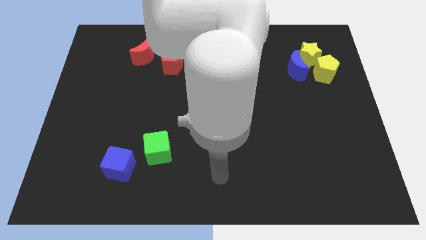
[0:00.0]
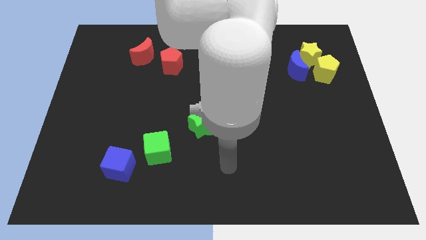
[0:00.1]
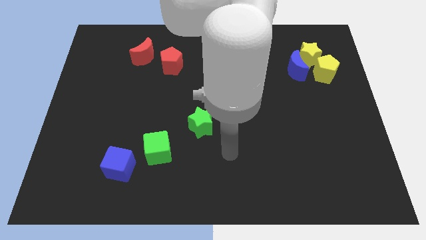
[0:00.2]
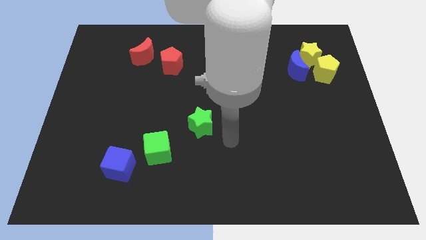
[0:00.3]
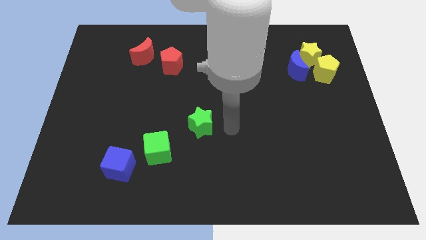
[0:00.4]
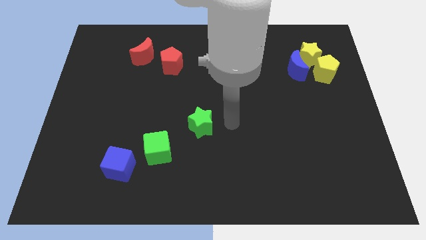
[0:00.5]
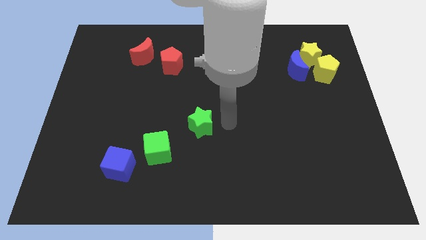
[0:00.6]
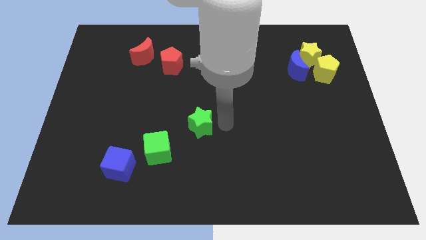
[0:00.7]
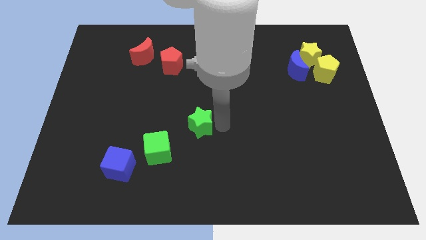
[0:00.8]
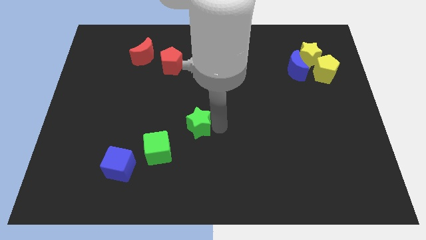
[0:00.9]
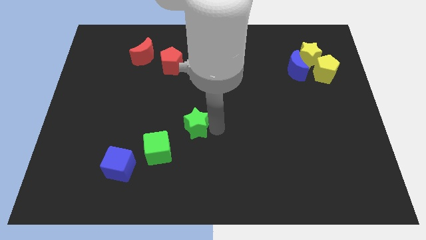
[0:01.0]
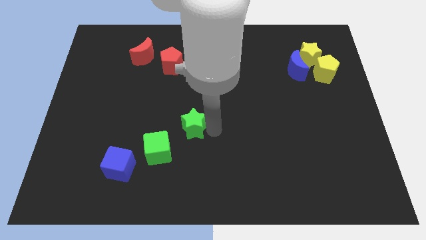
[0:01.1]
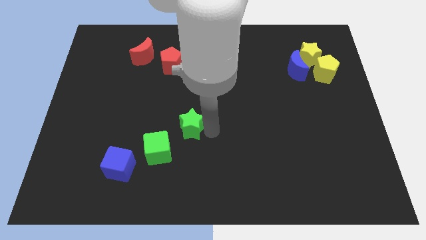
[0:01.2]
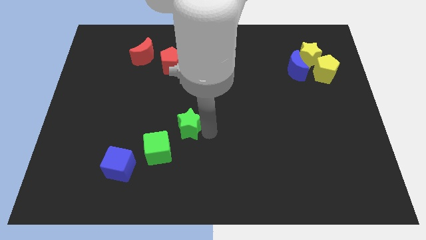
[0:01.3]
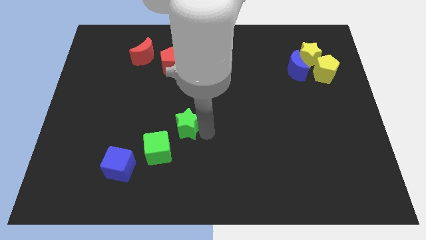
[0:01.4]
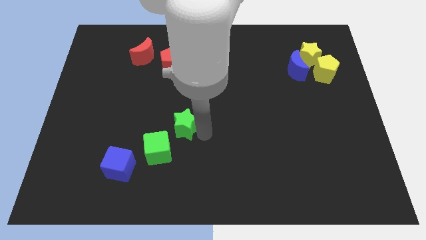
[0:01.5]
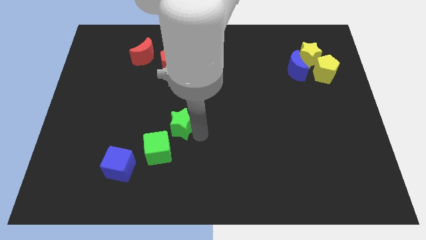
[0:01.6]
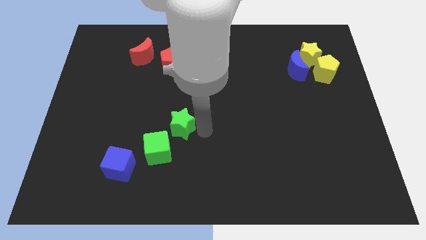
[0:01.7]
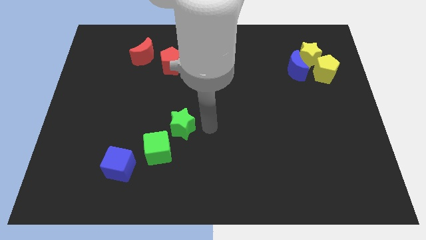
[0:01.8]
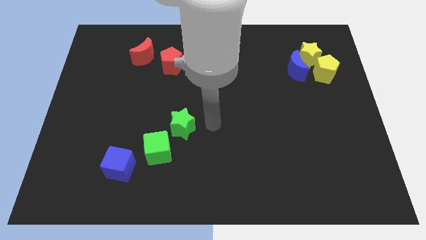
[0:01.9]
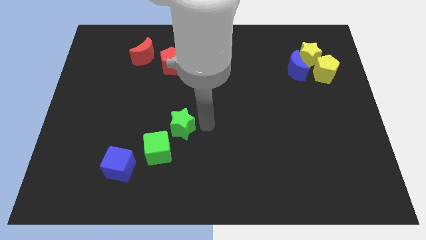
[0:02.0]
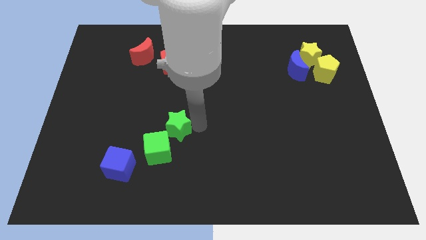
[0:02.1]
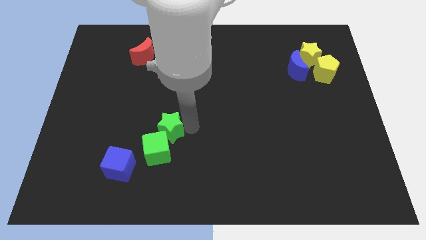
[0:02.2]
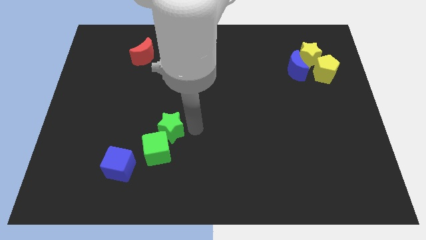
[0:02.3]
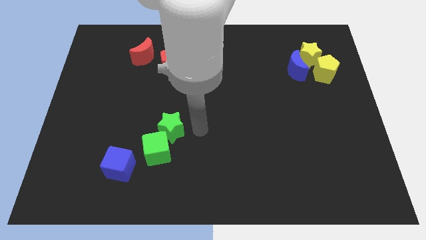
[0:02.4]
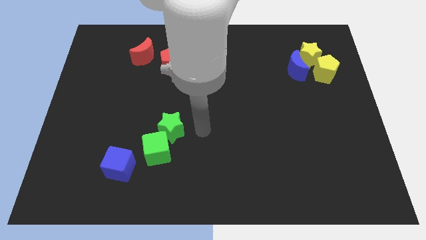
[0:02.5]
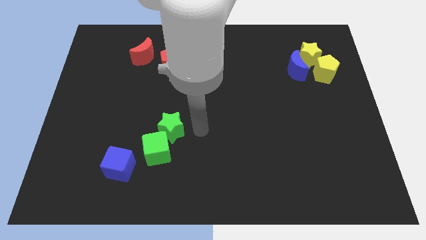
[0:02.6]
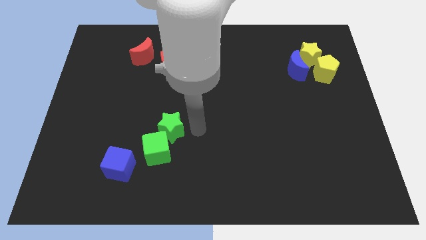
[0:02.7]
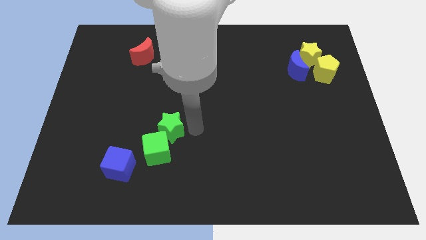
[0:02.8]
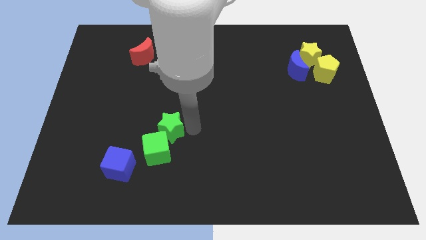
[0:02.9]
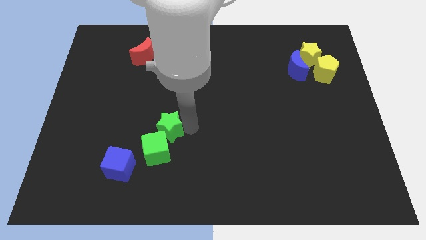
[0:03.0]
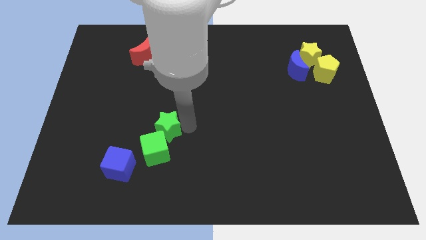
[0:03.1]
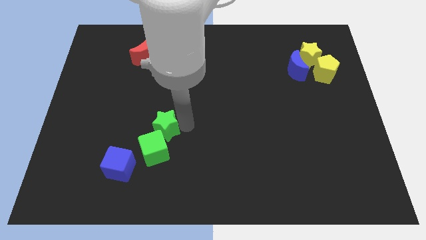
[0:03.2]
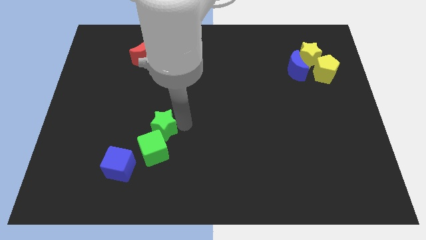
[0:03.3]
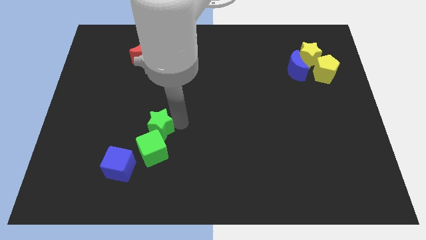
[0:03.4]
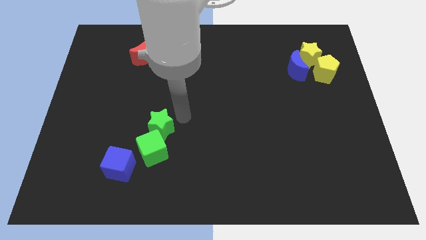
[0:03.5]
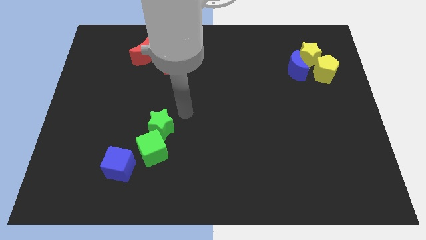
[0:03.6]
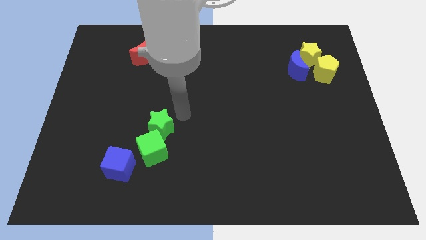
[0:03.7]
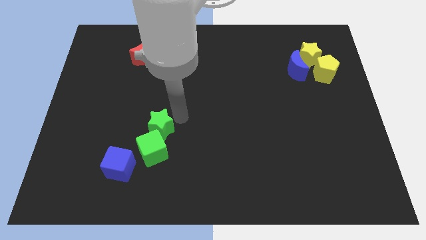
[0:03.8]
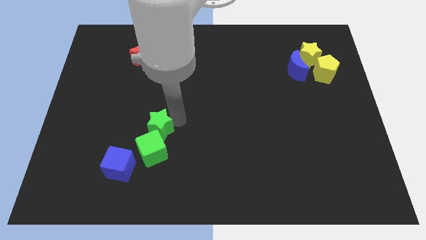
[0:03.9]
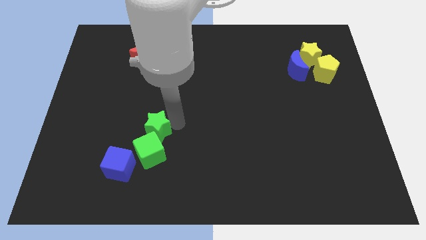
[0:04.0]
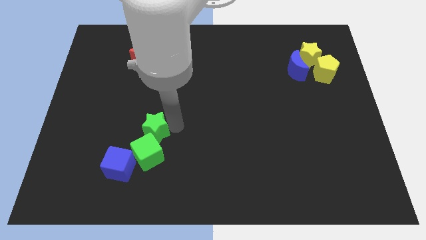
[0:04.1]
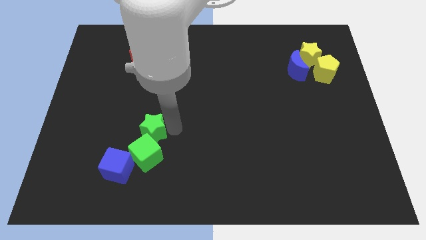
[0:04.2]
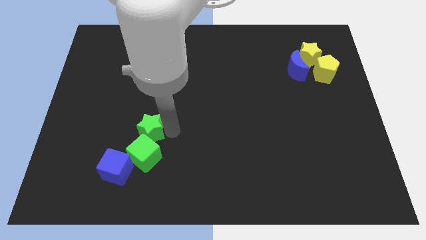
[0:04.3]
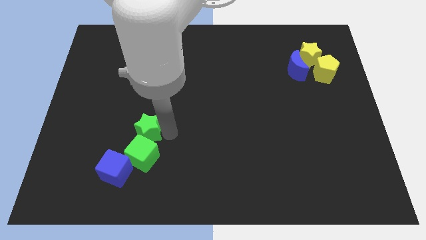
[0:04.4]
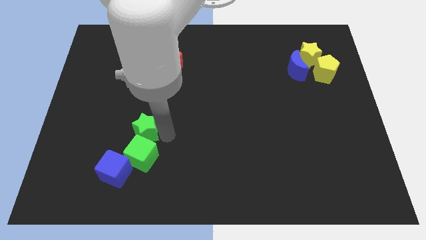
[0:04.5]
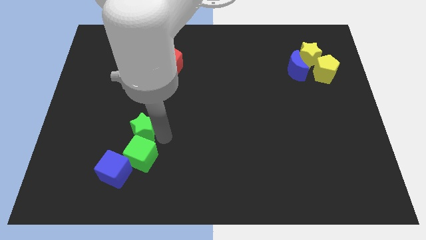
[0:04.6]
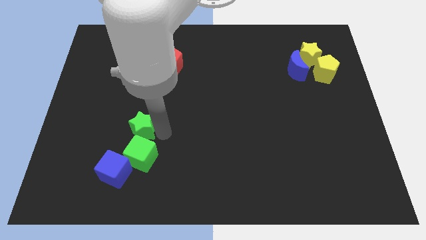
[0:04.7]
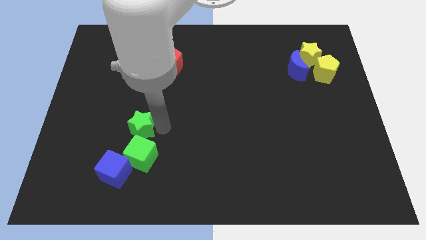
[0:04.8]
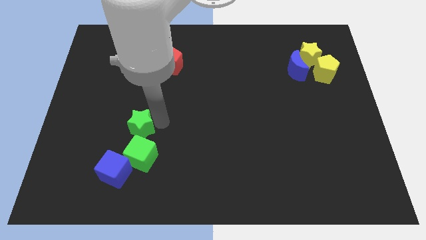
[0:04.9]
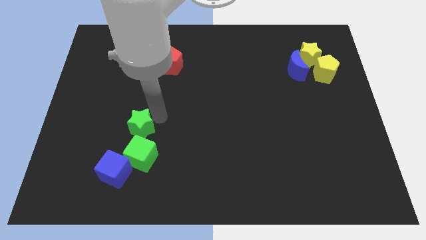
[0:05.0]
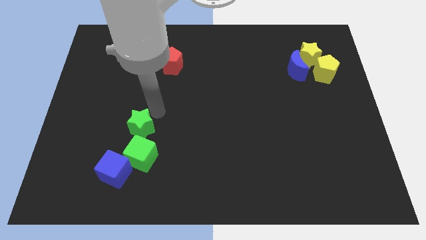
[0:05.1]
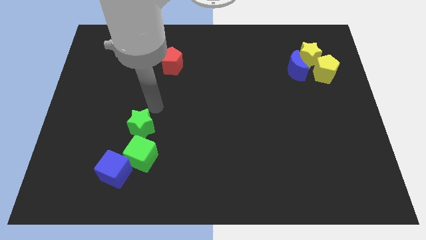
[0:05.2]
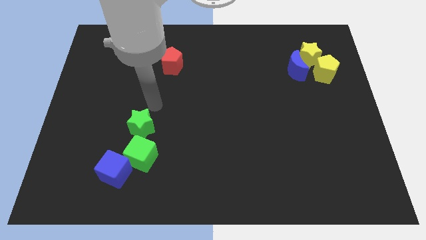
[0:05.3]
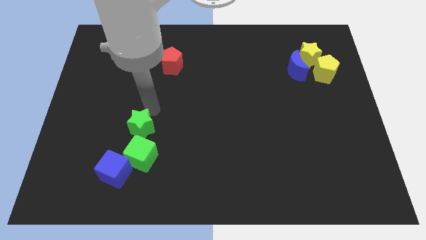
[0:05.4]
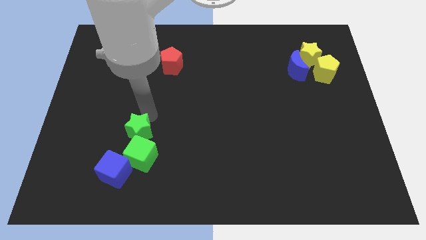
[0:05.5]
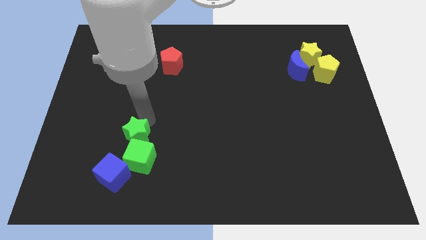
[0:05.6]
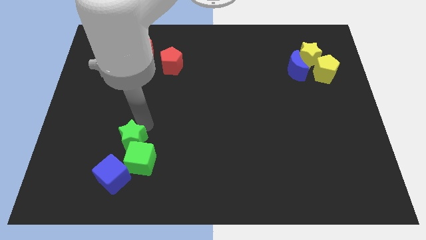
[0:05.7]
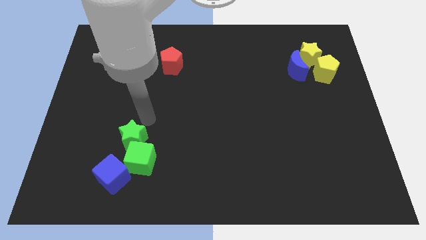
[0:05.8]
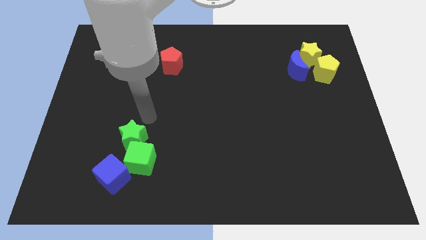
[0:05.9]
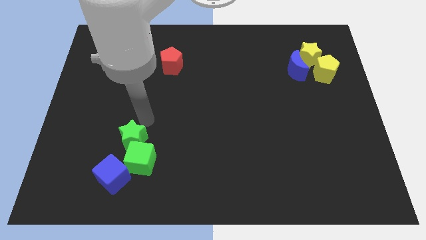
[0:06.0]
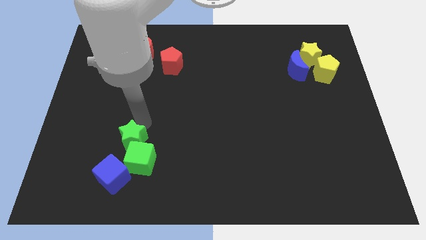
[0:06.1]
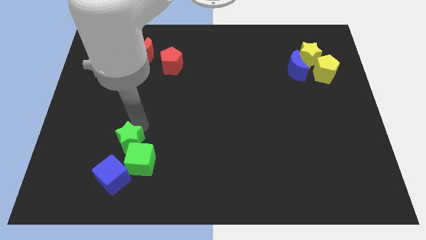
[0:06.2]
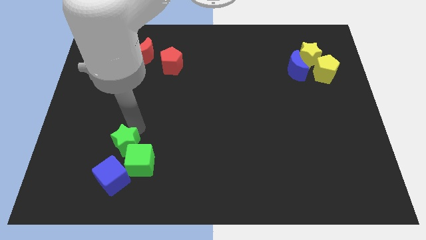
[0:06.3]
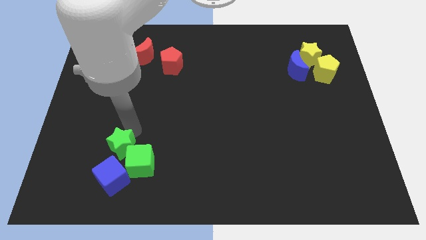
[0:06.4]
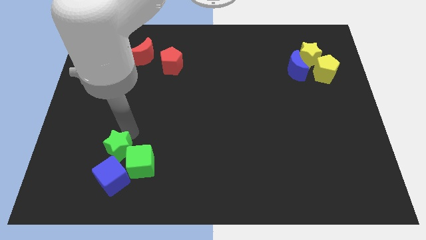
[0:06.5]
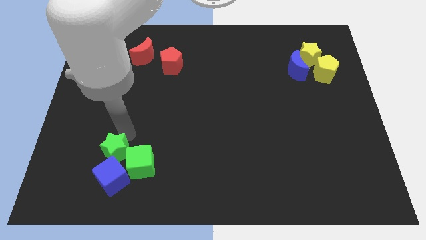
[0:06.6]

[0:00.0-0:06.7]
slide the green star close to the blue cube

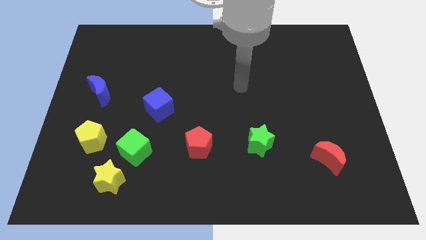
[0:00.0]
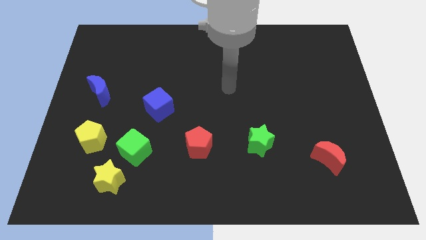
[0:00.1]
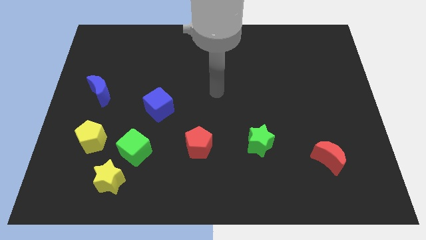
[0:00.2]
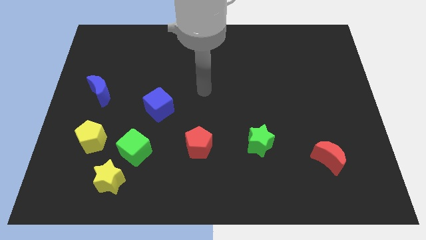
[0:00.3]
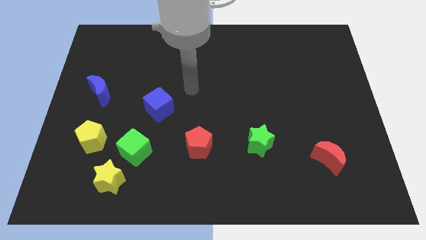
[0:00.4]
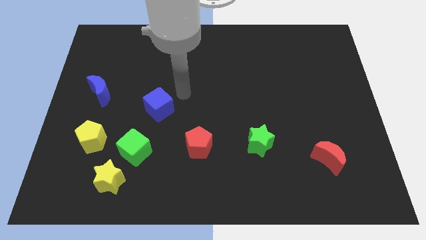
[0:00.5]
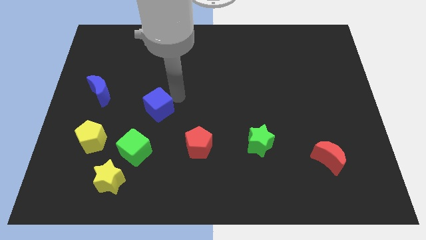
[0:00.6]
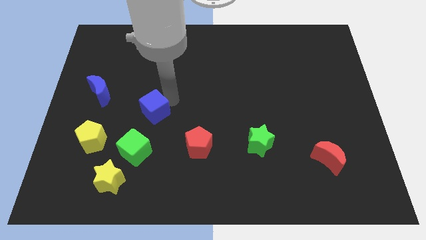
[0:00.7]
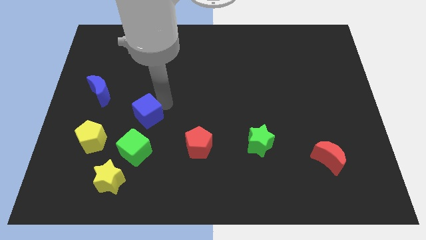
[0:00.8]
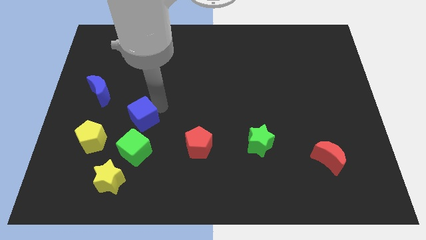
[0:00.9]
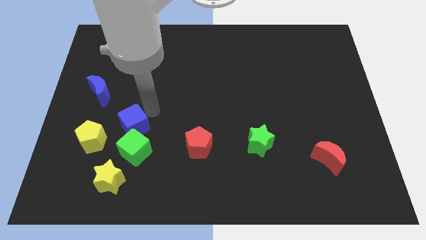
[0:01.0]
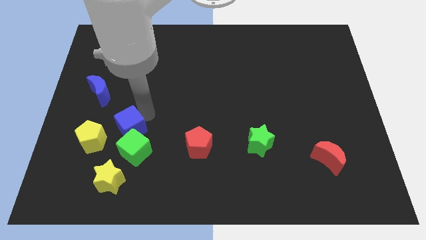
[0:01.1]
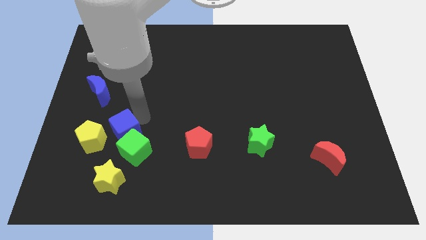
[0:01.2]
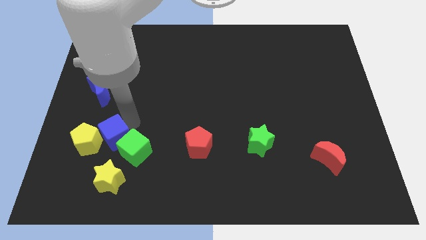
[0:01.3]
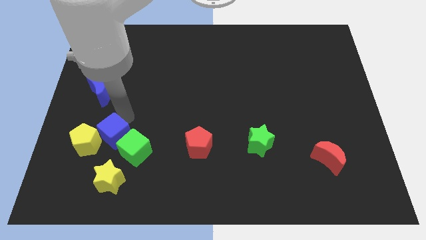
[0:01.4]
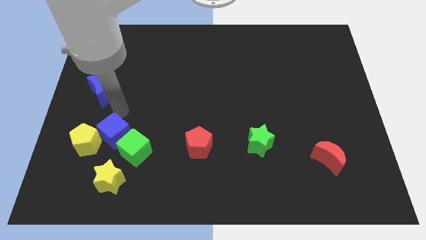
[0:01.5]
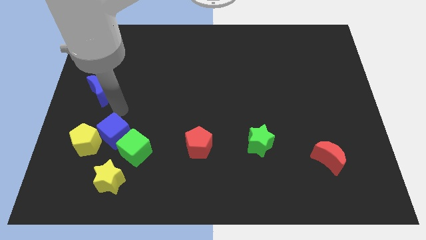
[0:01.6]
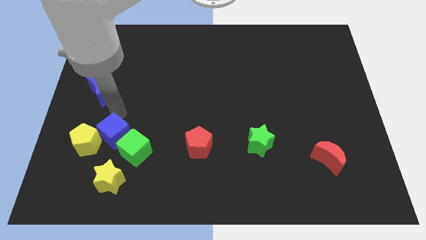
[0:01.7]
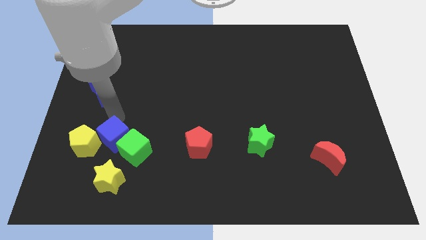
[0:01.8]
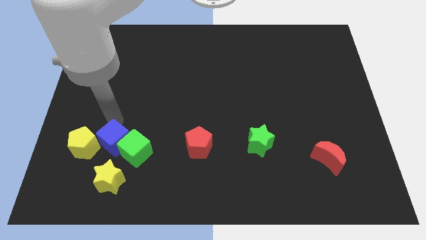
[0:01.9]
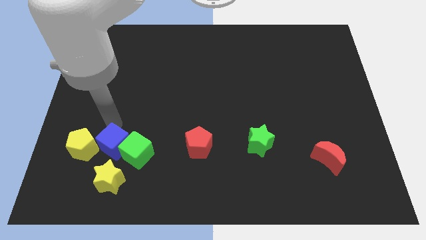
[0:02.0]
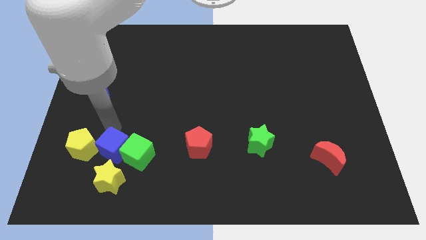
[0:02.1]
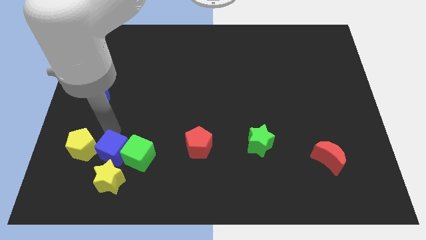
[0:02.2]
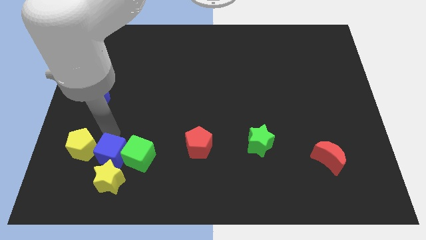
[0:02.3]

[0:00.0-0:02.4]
put the blue cube next to the yellow star
